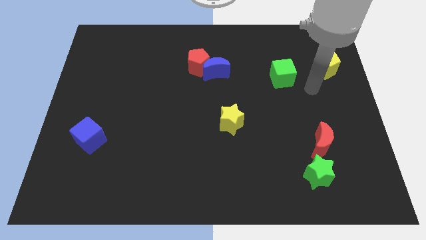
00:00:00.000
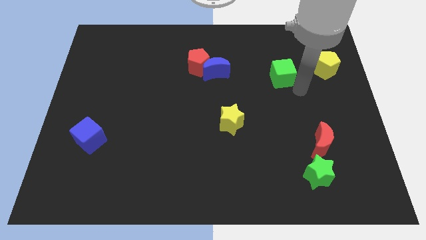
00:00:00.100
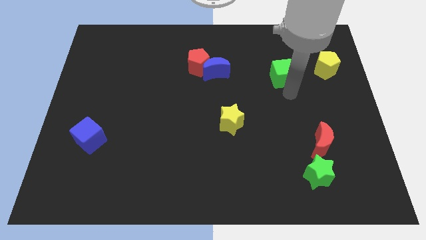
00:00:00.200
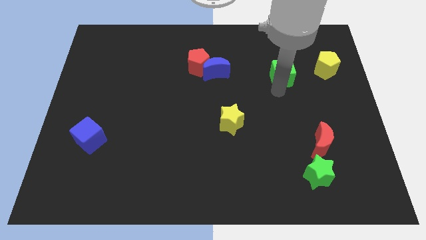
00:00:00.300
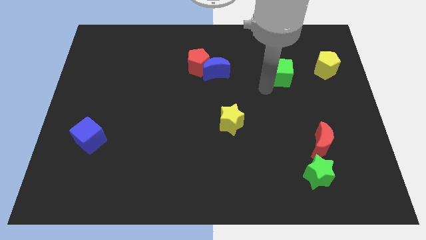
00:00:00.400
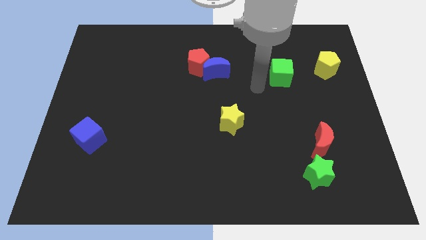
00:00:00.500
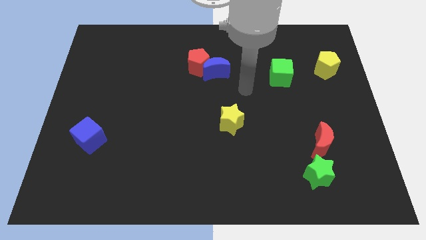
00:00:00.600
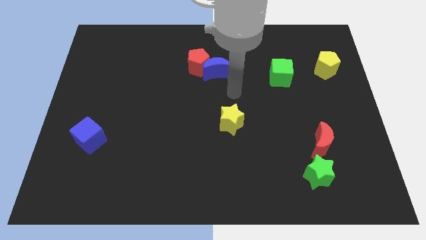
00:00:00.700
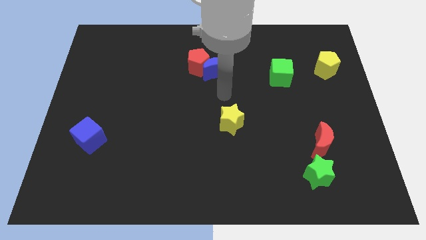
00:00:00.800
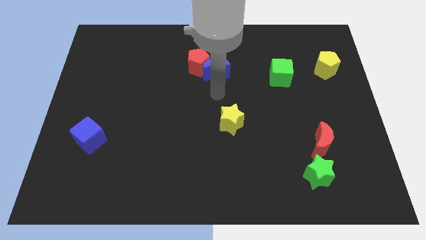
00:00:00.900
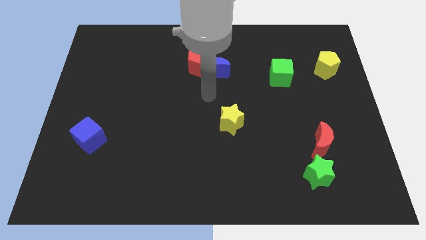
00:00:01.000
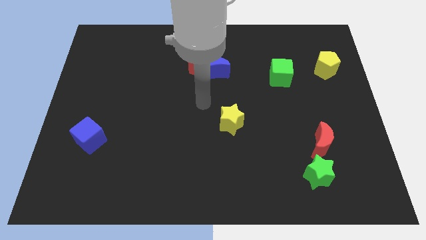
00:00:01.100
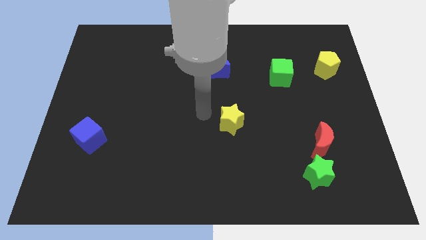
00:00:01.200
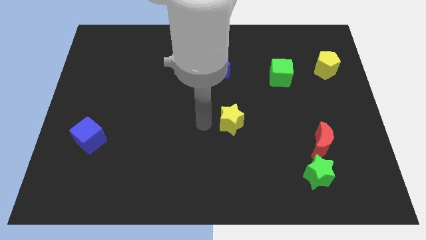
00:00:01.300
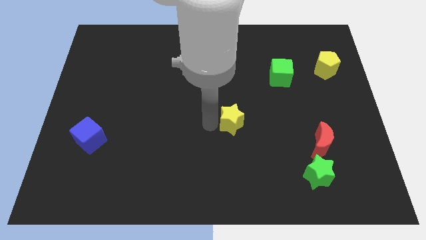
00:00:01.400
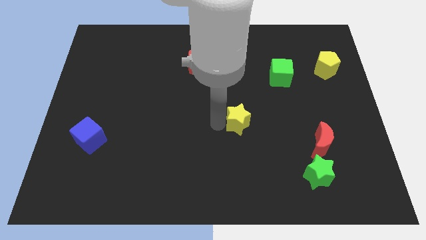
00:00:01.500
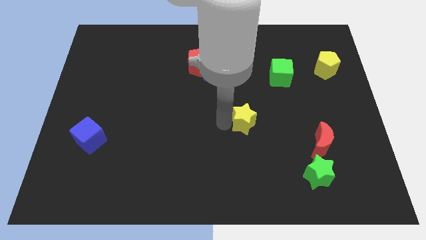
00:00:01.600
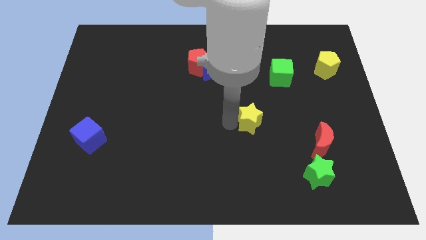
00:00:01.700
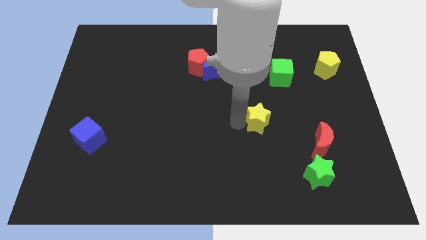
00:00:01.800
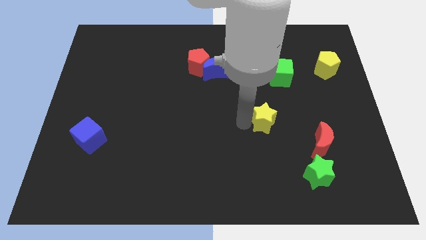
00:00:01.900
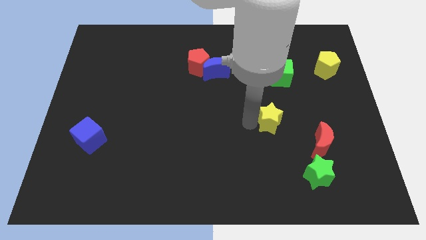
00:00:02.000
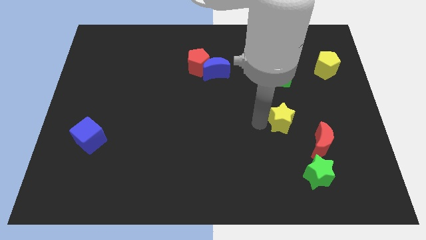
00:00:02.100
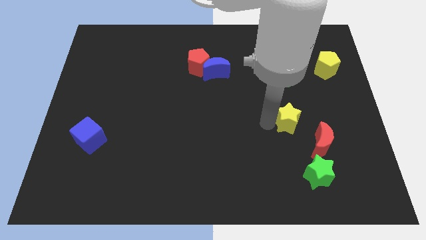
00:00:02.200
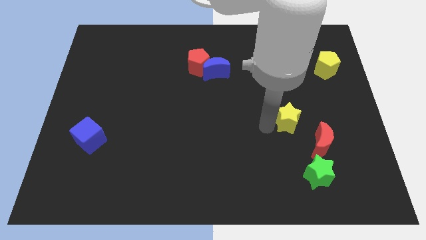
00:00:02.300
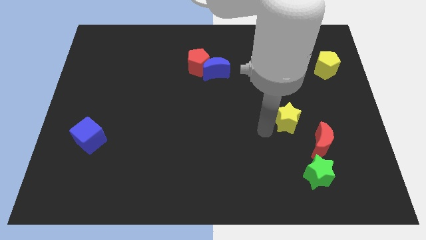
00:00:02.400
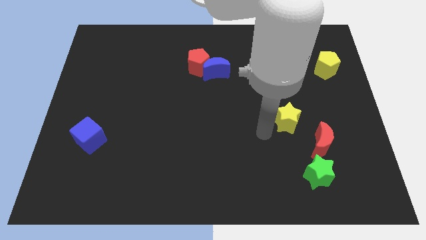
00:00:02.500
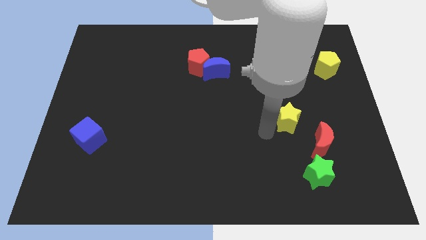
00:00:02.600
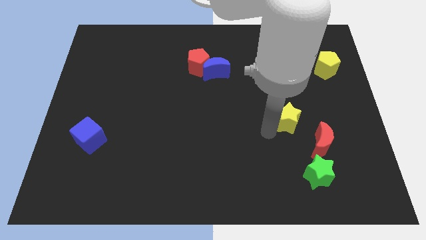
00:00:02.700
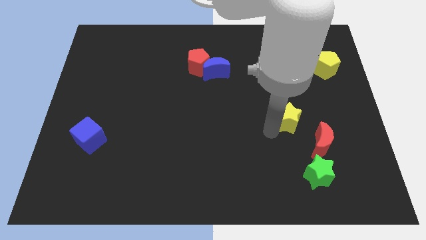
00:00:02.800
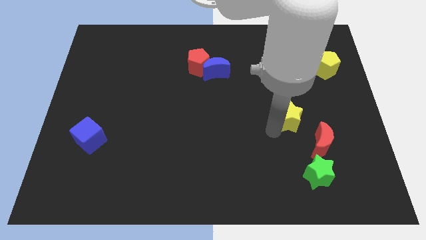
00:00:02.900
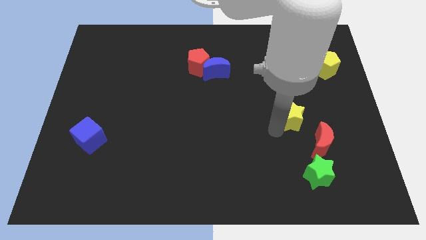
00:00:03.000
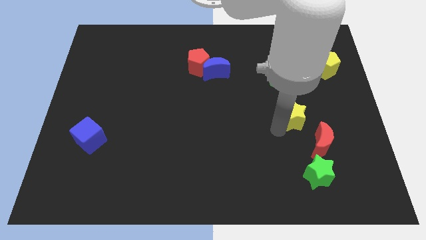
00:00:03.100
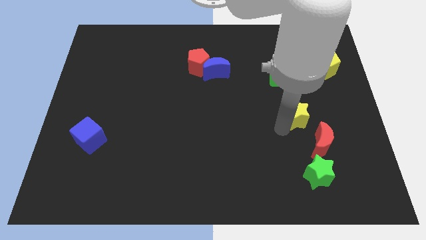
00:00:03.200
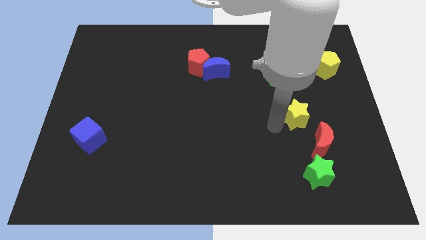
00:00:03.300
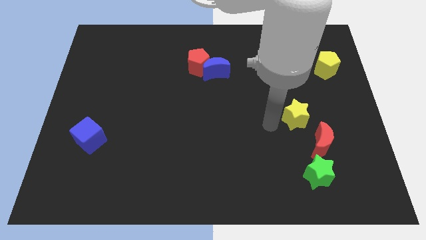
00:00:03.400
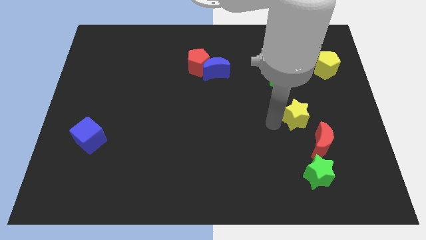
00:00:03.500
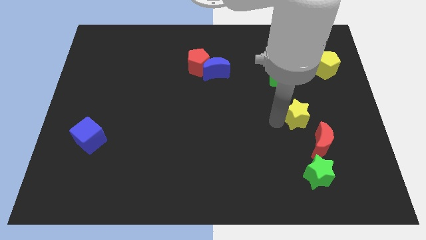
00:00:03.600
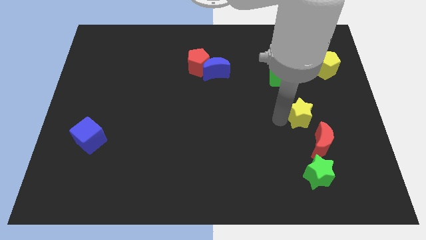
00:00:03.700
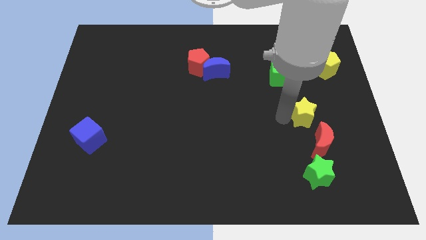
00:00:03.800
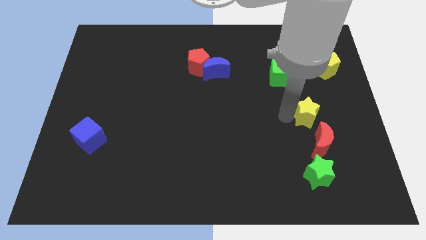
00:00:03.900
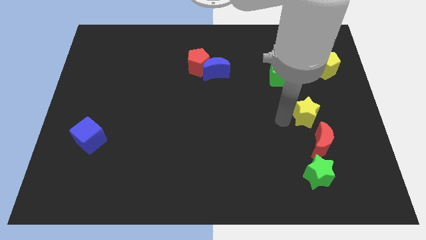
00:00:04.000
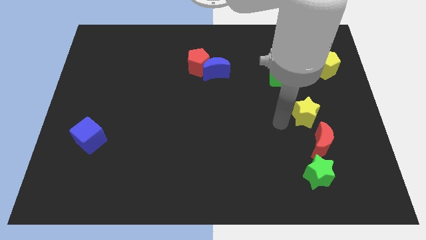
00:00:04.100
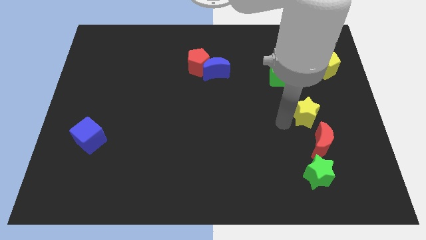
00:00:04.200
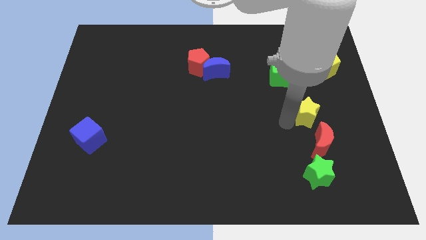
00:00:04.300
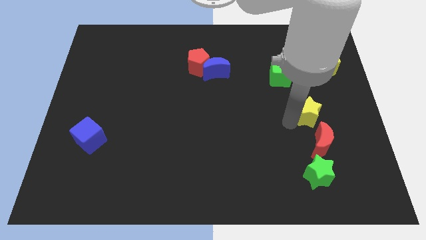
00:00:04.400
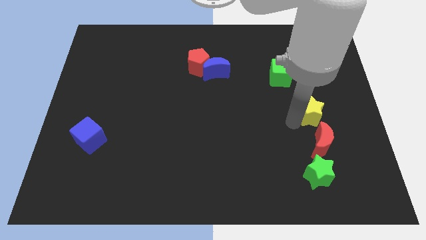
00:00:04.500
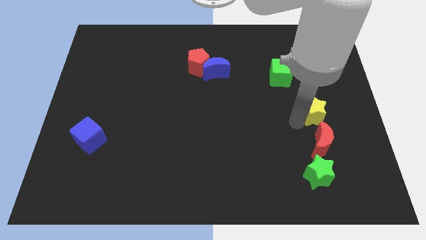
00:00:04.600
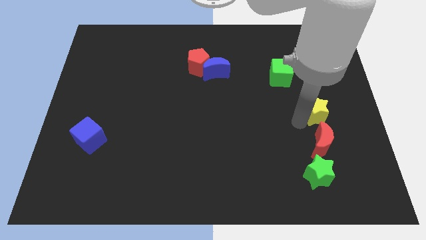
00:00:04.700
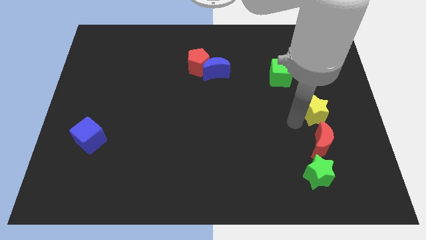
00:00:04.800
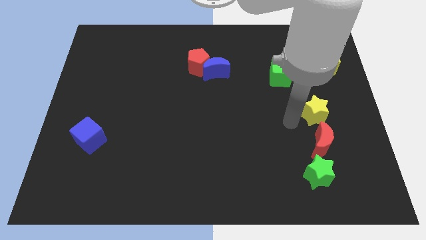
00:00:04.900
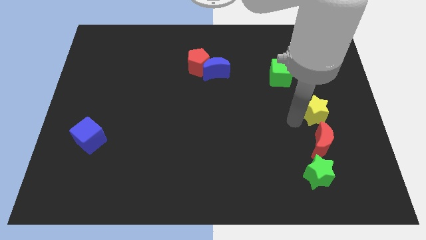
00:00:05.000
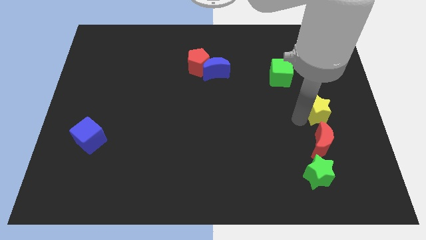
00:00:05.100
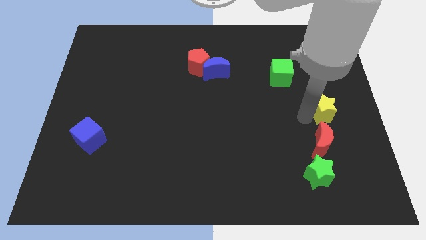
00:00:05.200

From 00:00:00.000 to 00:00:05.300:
slide the yellow star to the center right

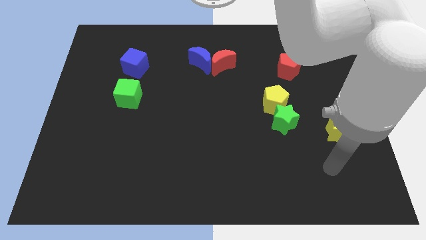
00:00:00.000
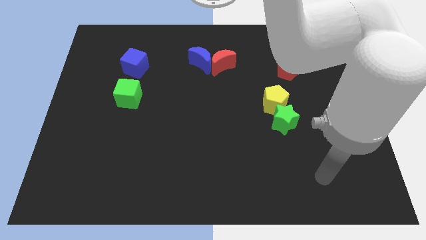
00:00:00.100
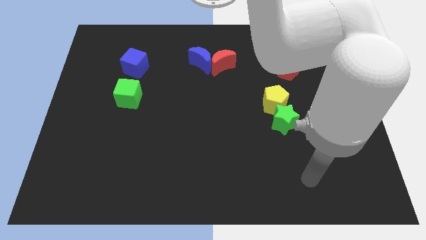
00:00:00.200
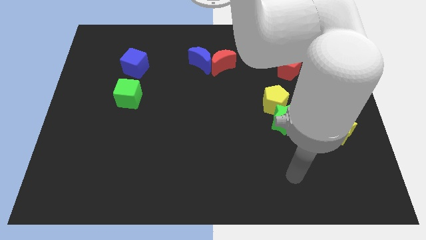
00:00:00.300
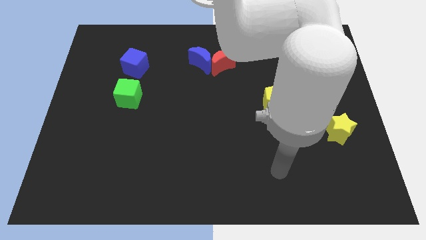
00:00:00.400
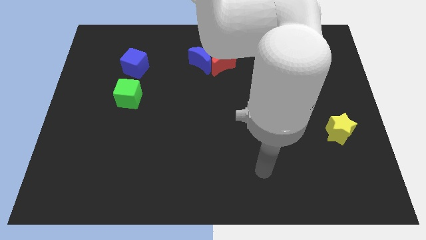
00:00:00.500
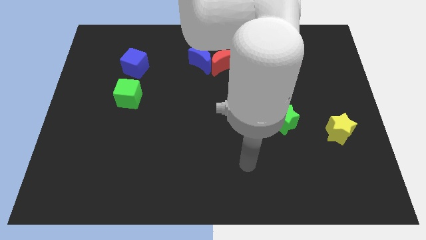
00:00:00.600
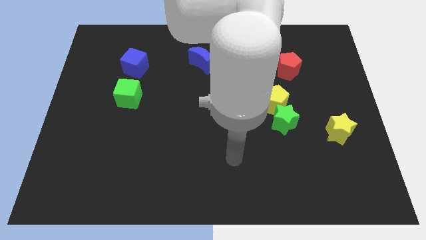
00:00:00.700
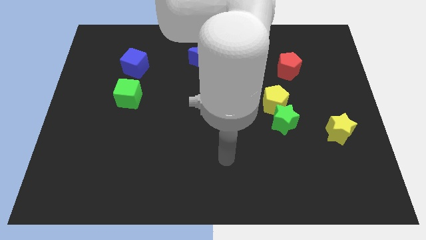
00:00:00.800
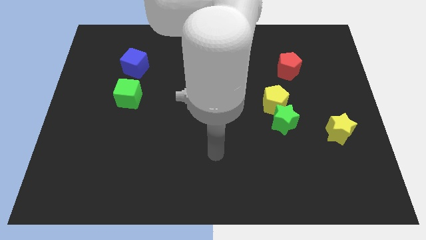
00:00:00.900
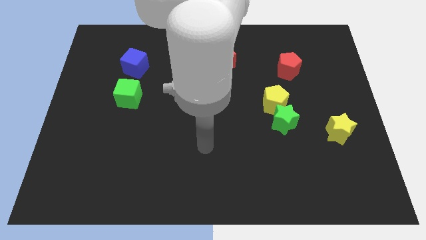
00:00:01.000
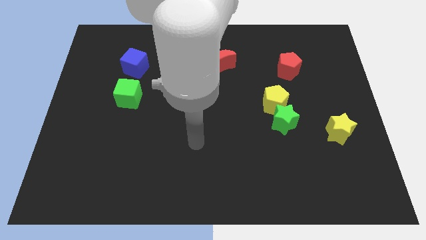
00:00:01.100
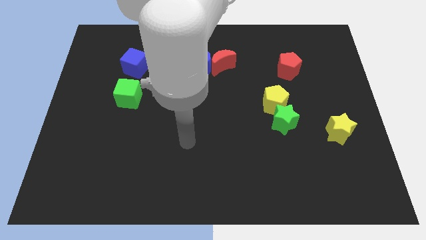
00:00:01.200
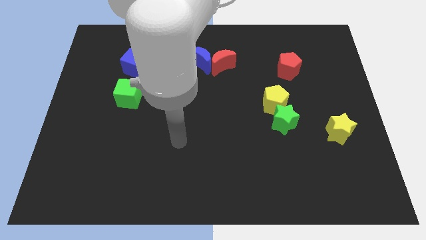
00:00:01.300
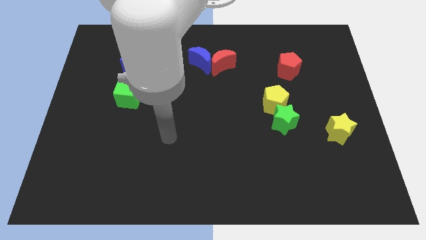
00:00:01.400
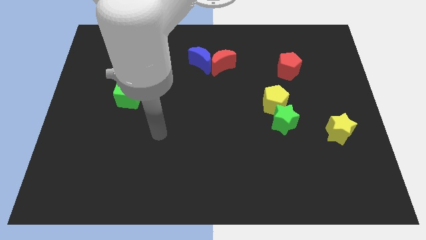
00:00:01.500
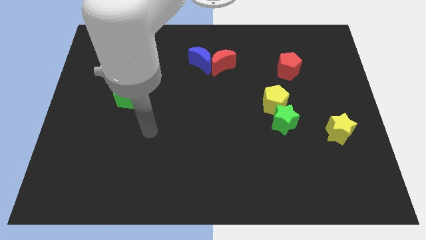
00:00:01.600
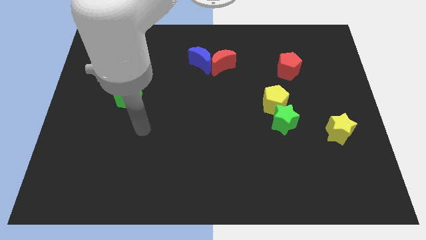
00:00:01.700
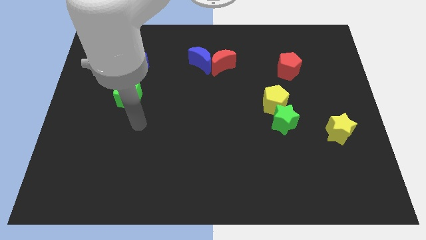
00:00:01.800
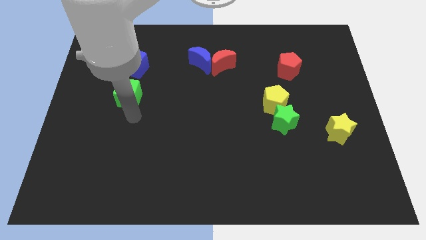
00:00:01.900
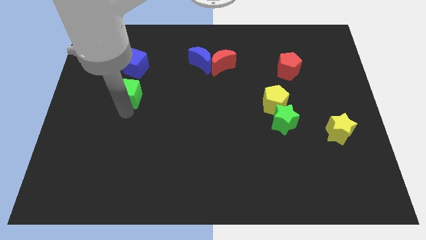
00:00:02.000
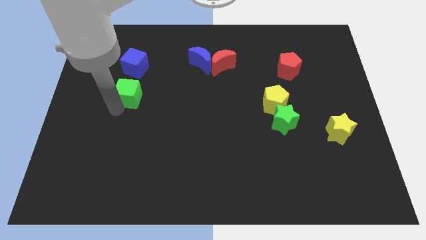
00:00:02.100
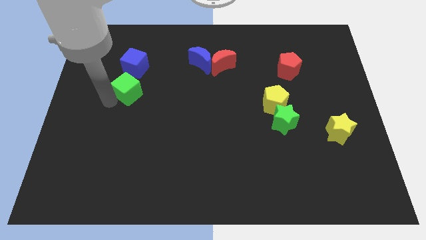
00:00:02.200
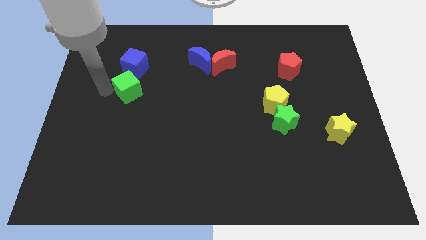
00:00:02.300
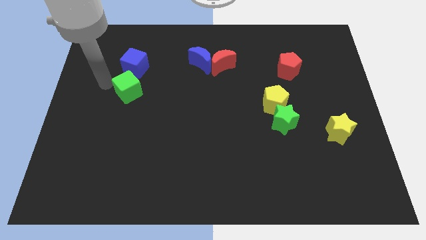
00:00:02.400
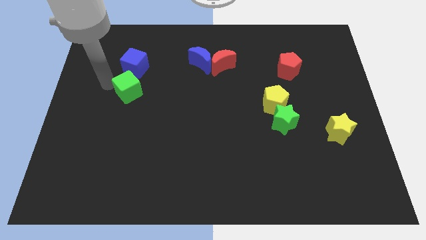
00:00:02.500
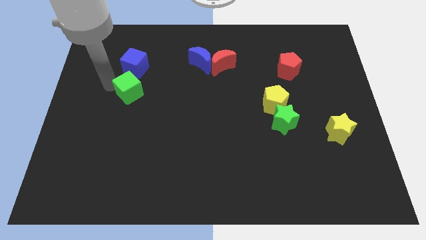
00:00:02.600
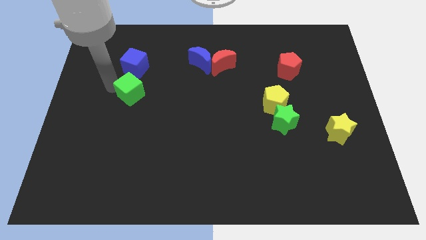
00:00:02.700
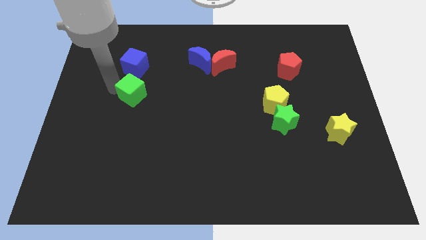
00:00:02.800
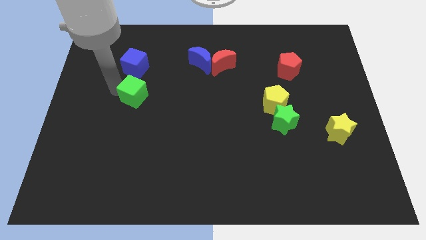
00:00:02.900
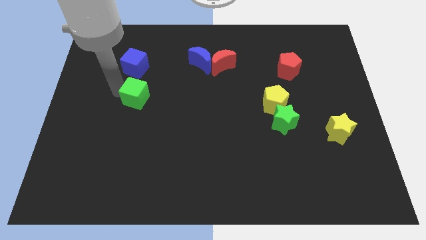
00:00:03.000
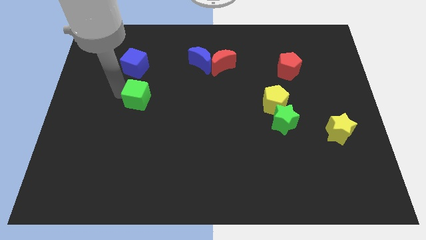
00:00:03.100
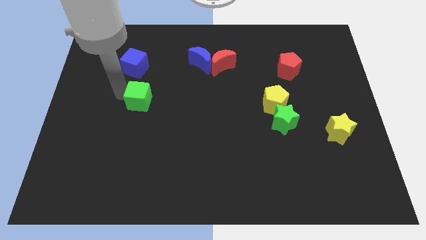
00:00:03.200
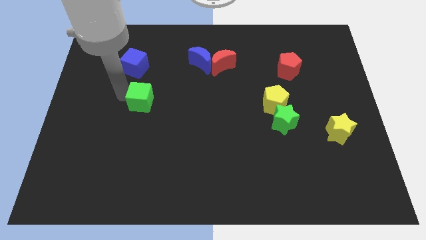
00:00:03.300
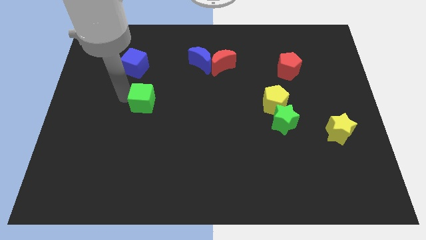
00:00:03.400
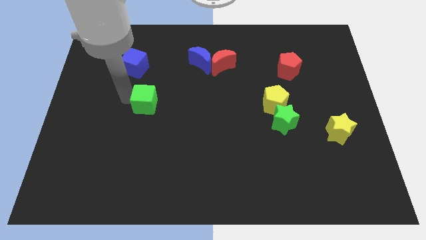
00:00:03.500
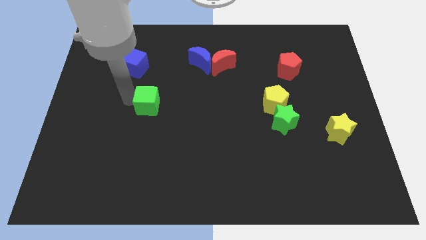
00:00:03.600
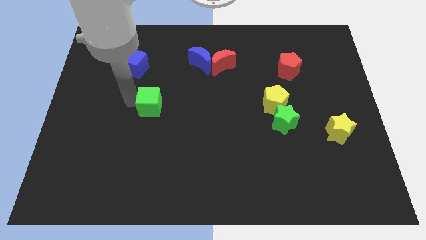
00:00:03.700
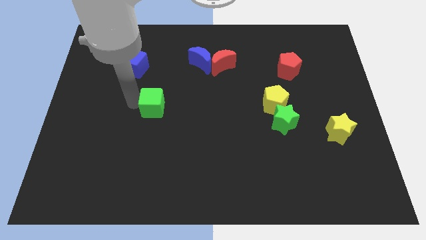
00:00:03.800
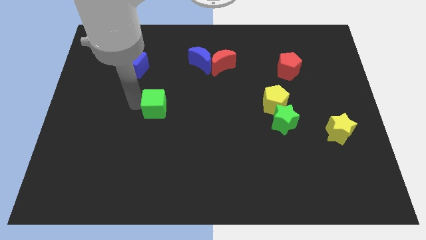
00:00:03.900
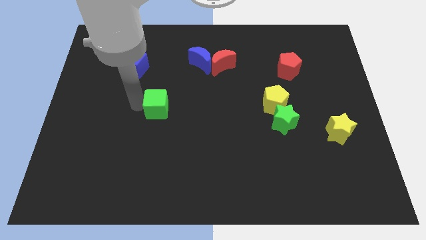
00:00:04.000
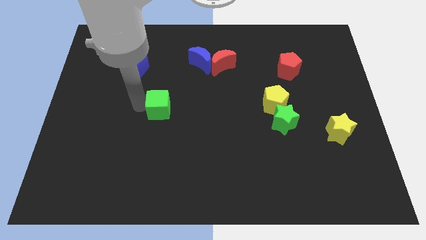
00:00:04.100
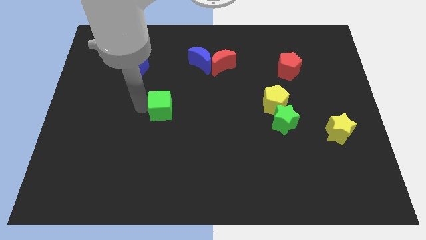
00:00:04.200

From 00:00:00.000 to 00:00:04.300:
move the green cube to the center
